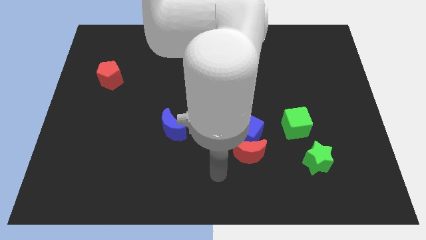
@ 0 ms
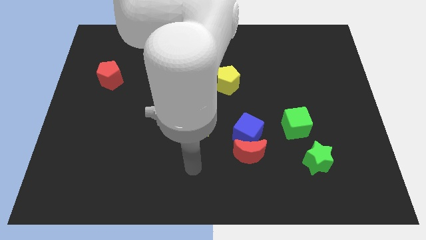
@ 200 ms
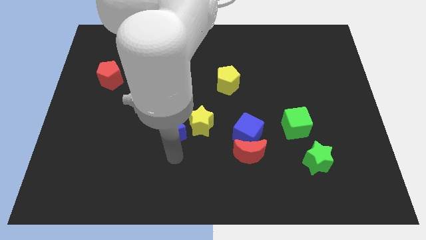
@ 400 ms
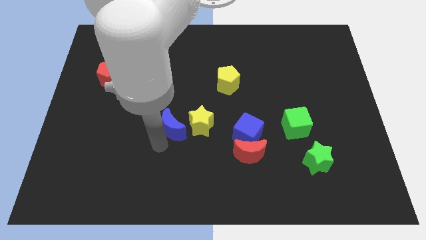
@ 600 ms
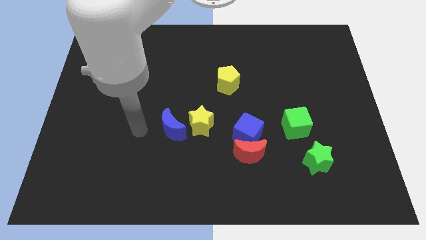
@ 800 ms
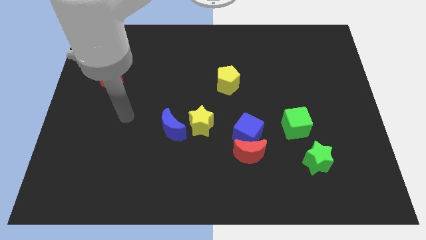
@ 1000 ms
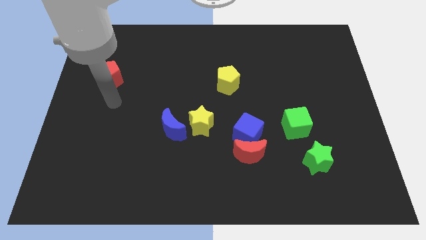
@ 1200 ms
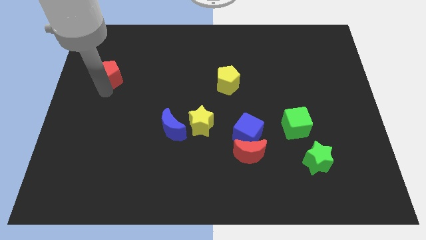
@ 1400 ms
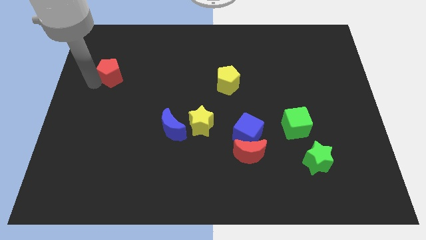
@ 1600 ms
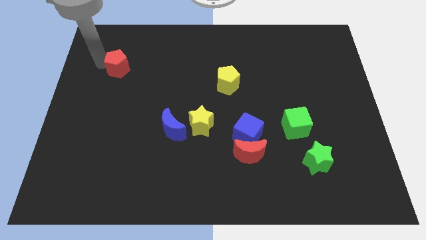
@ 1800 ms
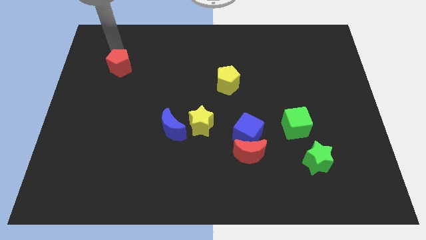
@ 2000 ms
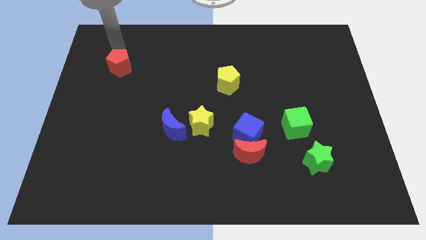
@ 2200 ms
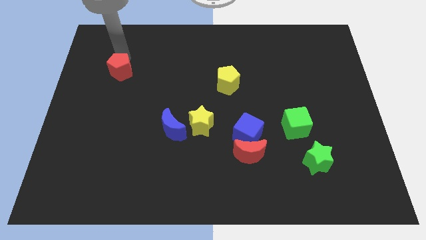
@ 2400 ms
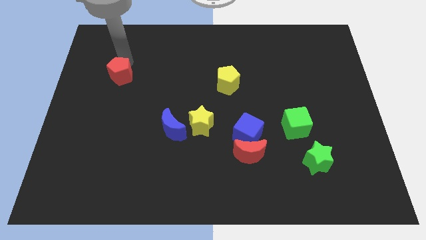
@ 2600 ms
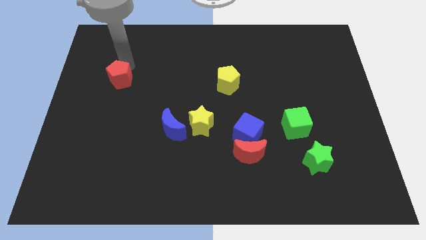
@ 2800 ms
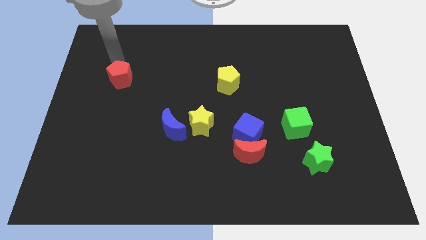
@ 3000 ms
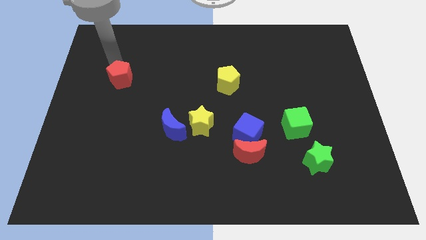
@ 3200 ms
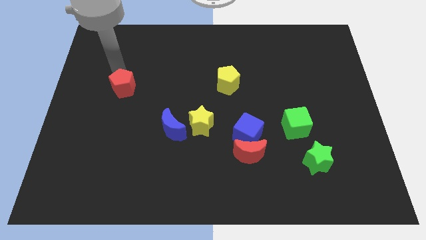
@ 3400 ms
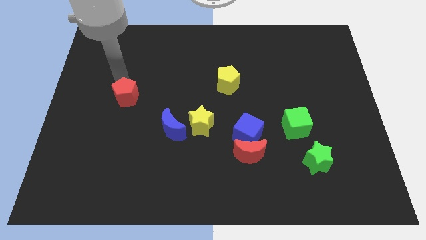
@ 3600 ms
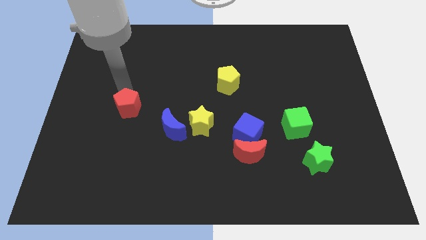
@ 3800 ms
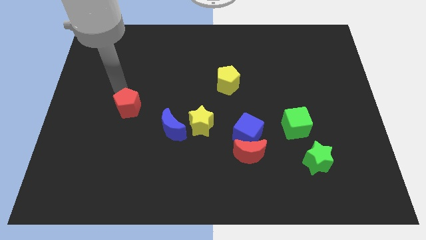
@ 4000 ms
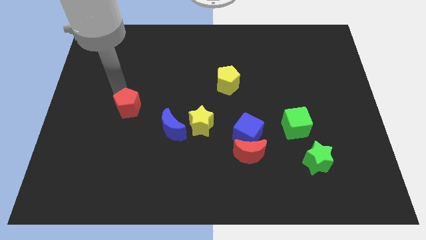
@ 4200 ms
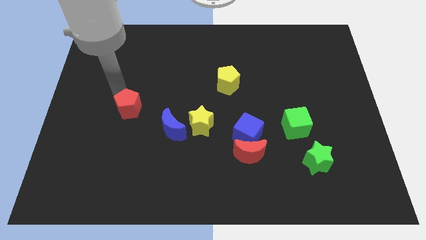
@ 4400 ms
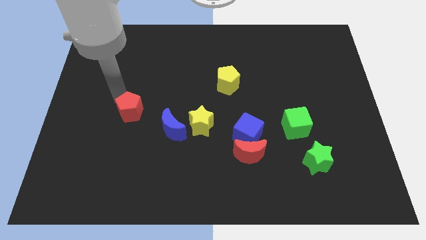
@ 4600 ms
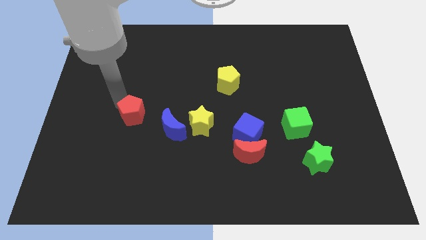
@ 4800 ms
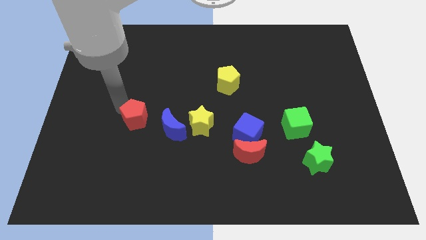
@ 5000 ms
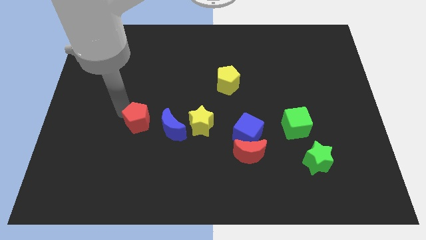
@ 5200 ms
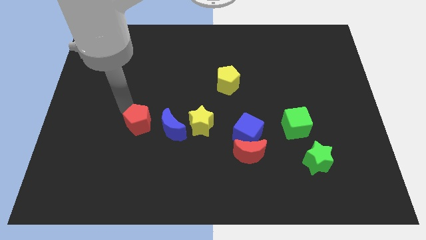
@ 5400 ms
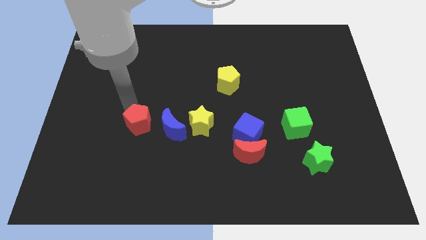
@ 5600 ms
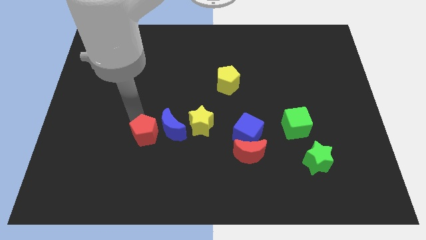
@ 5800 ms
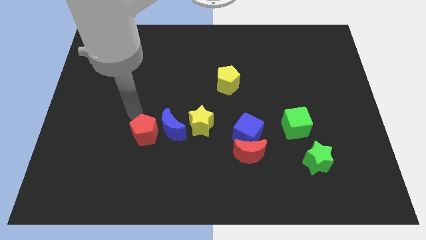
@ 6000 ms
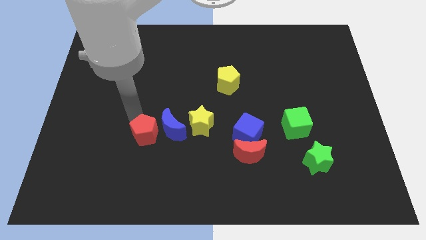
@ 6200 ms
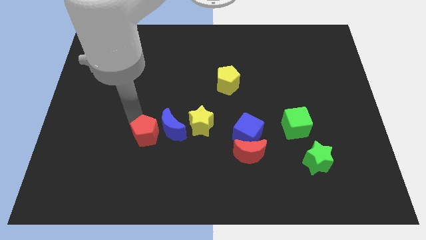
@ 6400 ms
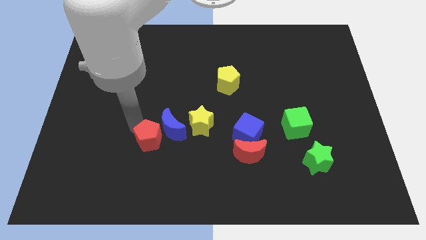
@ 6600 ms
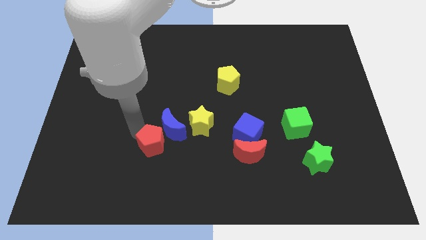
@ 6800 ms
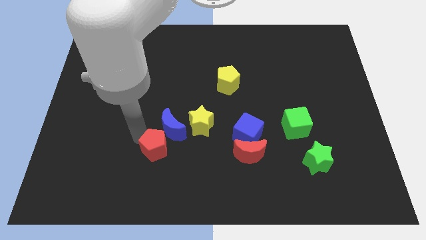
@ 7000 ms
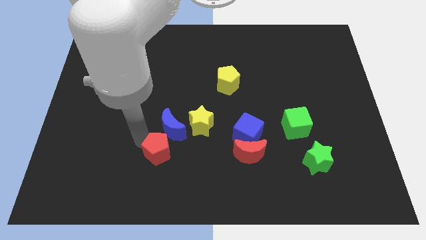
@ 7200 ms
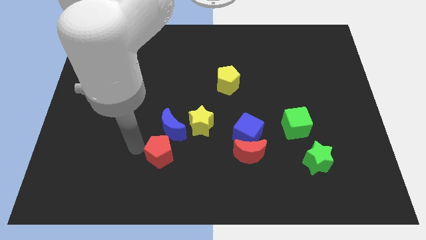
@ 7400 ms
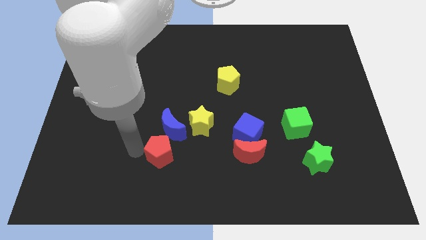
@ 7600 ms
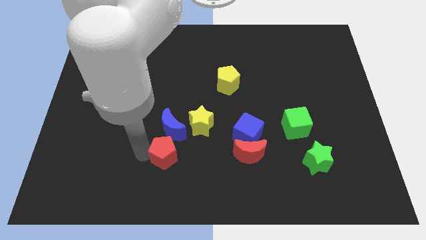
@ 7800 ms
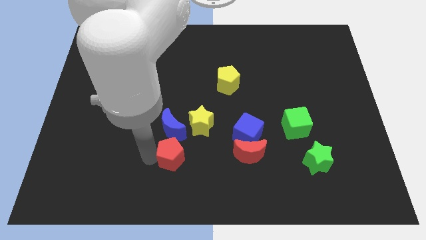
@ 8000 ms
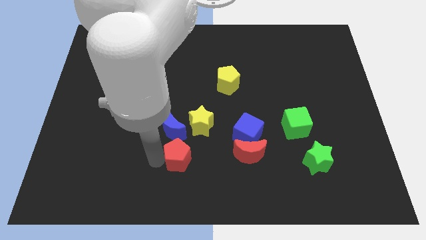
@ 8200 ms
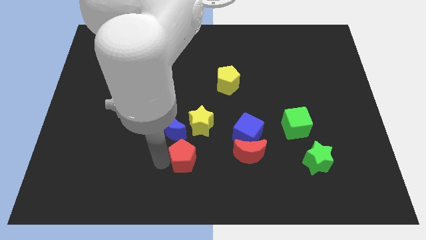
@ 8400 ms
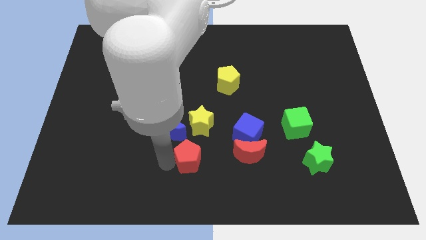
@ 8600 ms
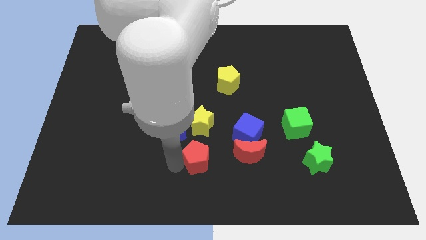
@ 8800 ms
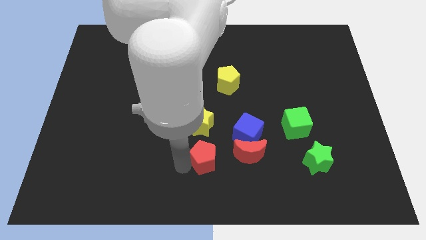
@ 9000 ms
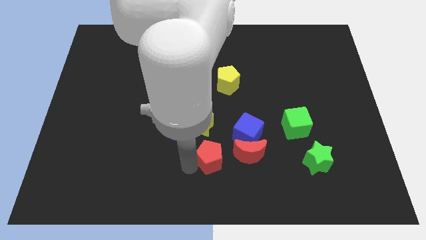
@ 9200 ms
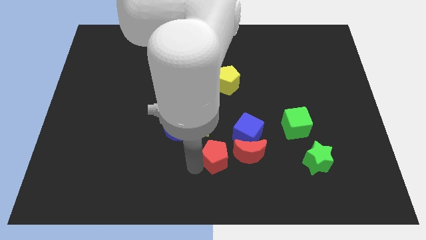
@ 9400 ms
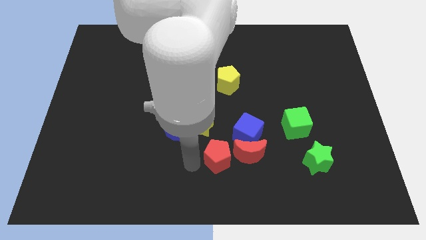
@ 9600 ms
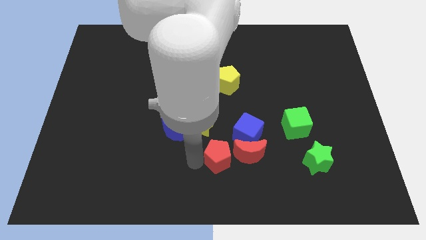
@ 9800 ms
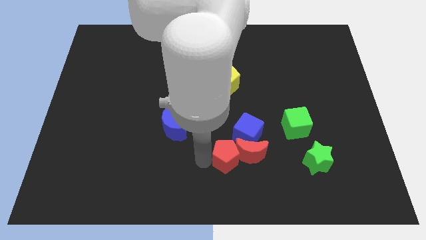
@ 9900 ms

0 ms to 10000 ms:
slide the red pentagon to the red moon

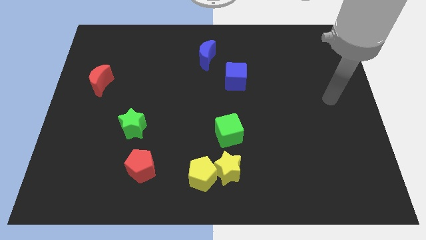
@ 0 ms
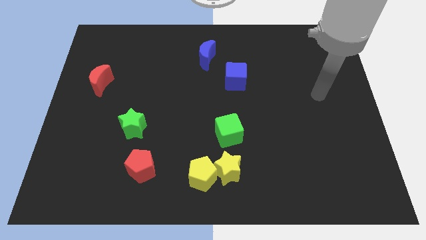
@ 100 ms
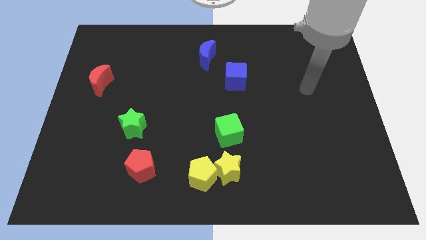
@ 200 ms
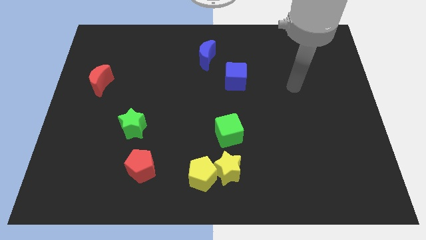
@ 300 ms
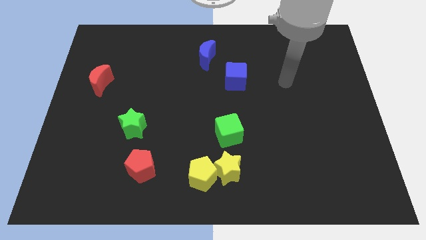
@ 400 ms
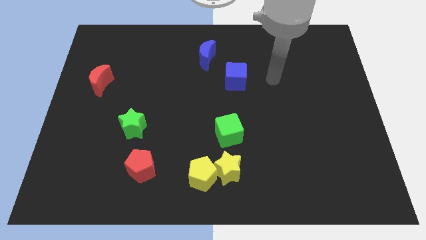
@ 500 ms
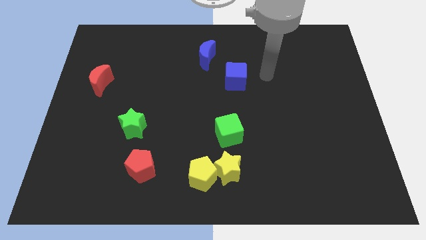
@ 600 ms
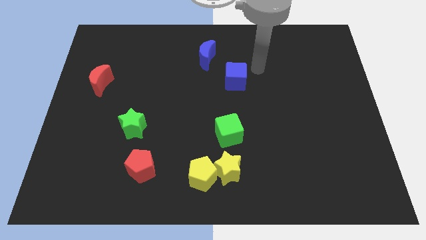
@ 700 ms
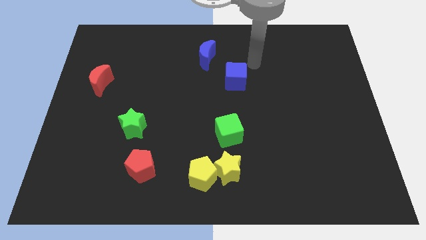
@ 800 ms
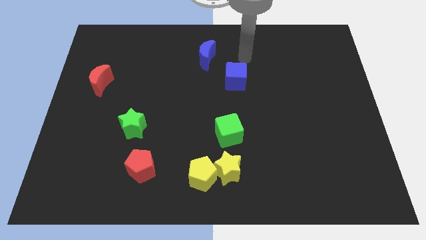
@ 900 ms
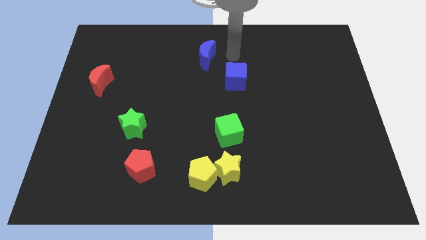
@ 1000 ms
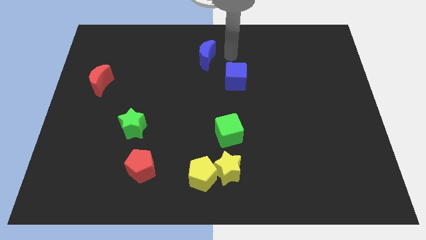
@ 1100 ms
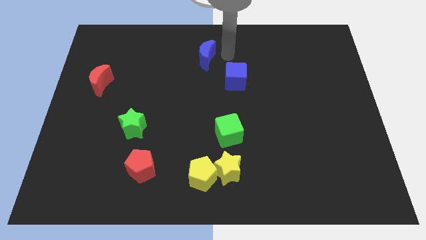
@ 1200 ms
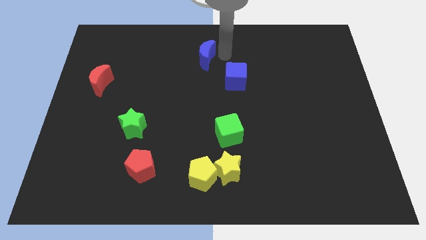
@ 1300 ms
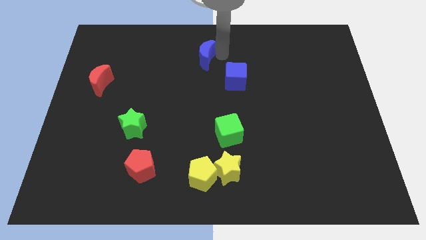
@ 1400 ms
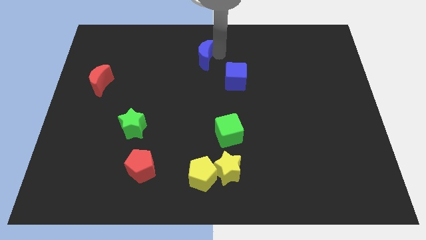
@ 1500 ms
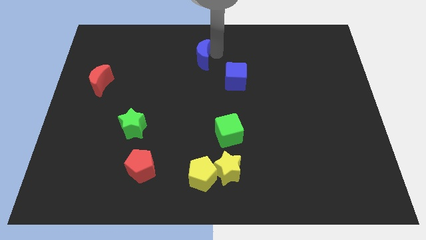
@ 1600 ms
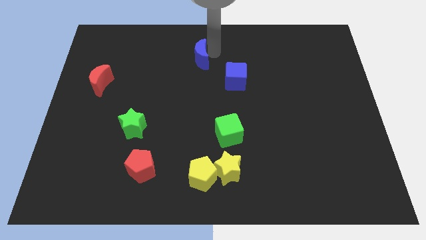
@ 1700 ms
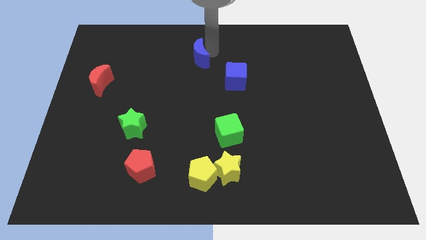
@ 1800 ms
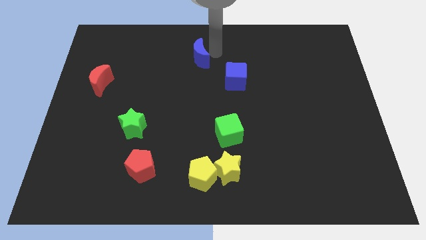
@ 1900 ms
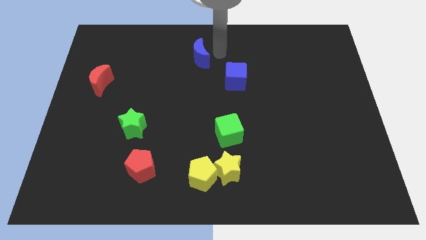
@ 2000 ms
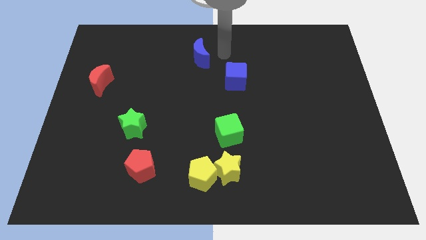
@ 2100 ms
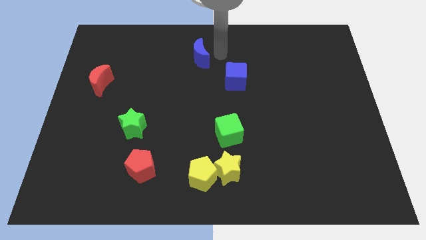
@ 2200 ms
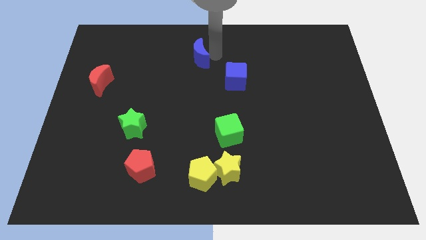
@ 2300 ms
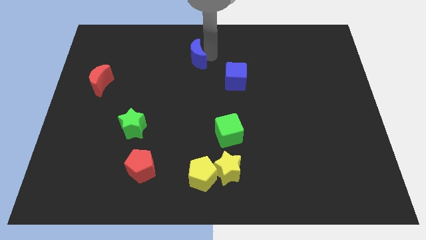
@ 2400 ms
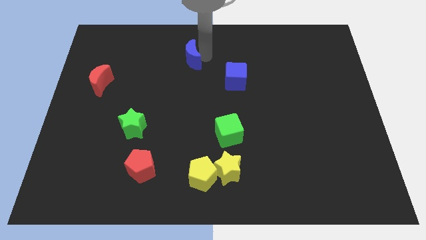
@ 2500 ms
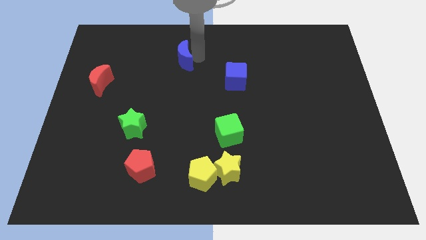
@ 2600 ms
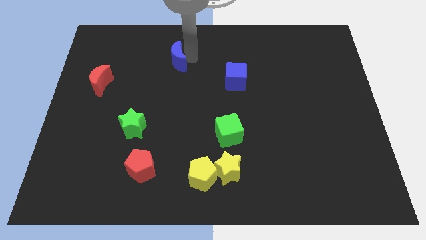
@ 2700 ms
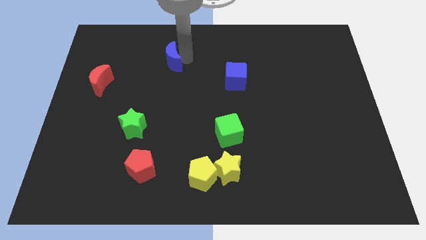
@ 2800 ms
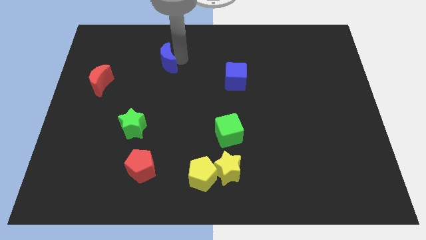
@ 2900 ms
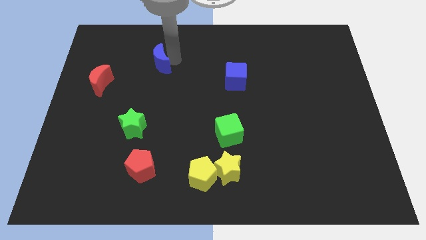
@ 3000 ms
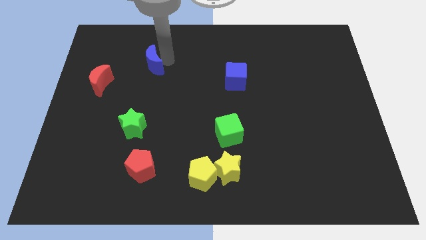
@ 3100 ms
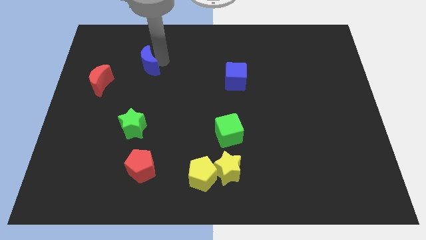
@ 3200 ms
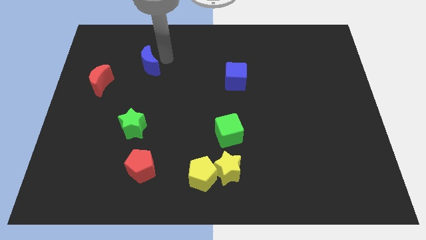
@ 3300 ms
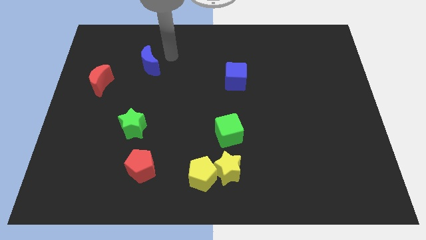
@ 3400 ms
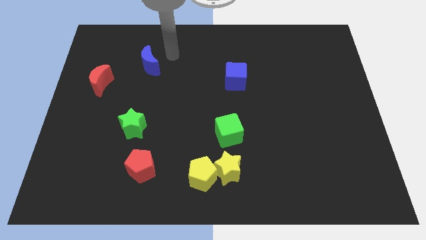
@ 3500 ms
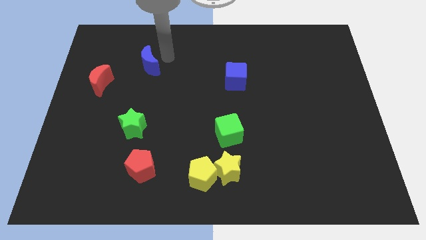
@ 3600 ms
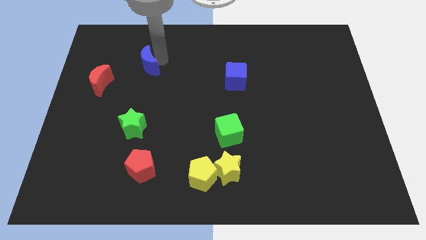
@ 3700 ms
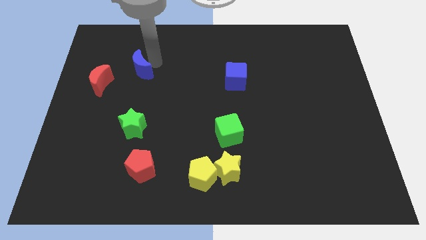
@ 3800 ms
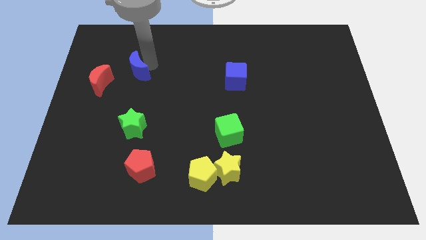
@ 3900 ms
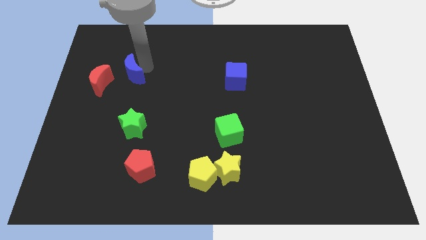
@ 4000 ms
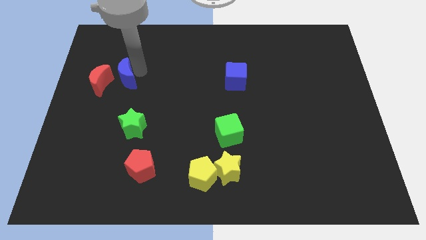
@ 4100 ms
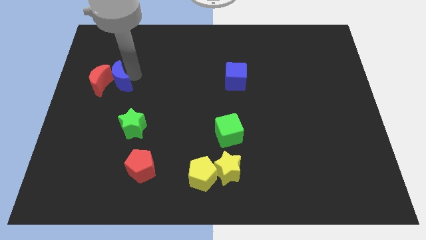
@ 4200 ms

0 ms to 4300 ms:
move the blue moon towards the red moon
